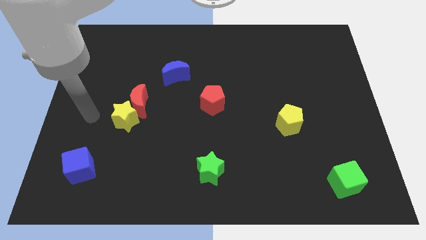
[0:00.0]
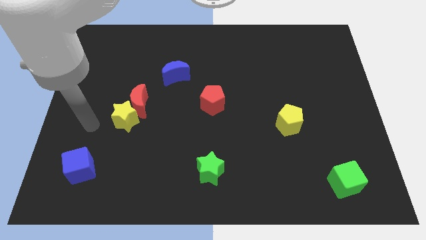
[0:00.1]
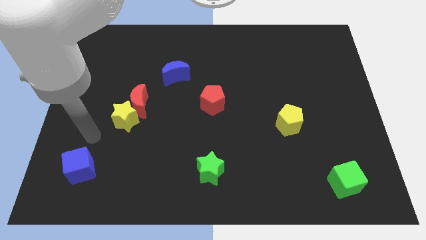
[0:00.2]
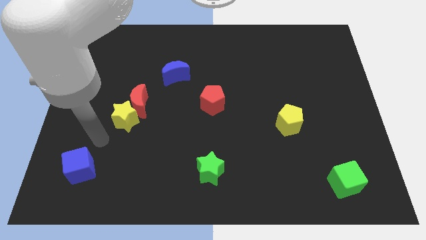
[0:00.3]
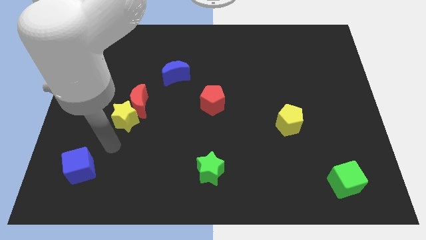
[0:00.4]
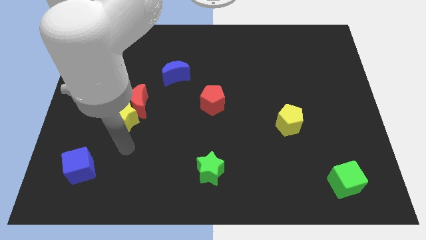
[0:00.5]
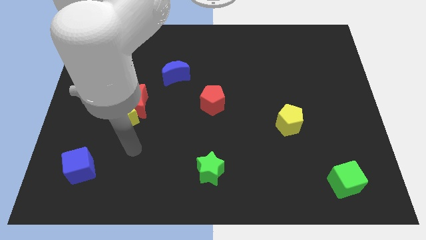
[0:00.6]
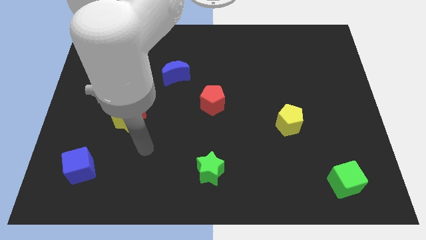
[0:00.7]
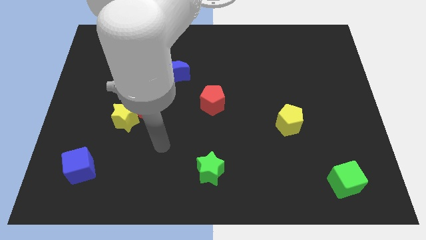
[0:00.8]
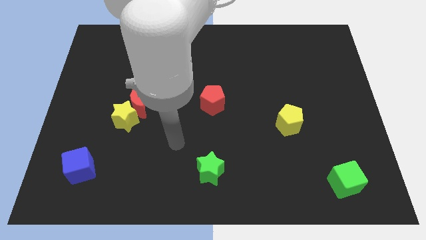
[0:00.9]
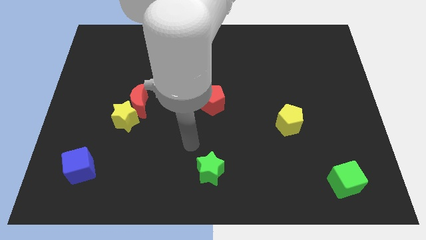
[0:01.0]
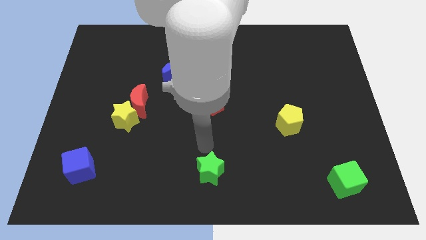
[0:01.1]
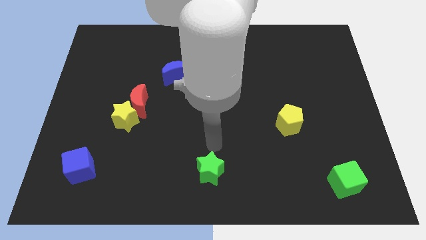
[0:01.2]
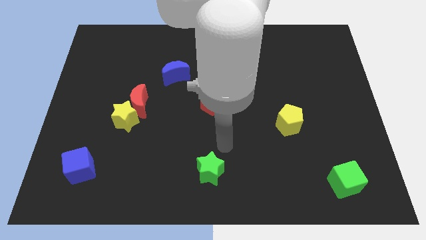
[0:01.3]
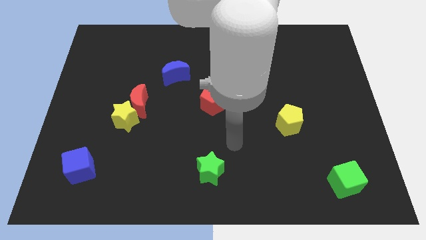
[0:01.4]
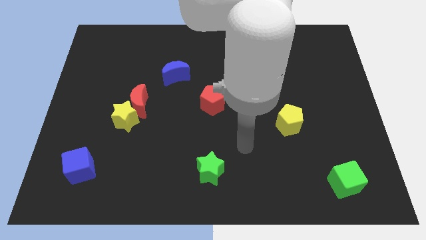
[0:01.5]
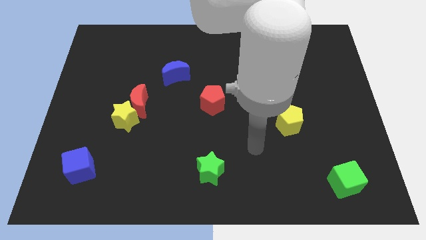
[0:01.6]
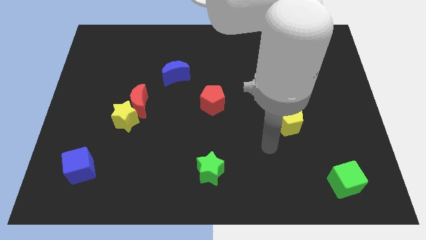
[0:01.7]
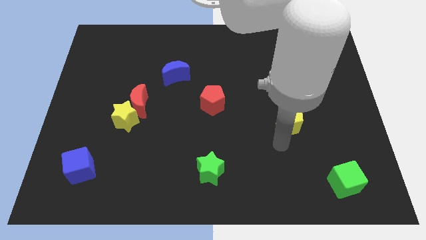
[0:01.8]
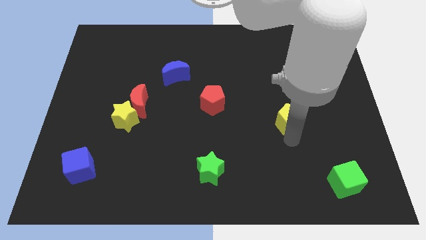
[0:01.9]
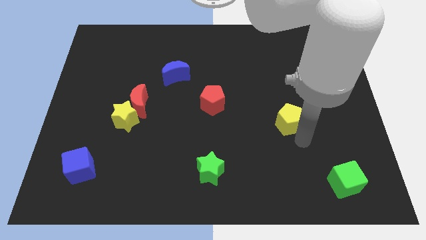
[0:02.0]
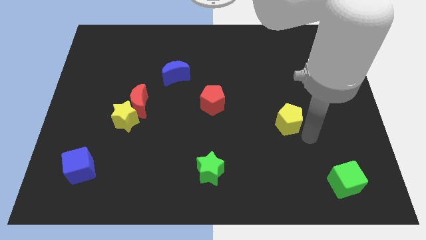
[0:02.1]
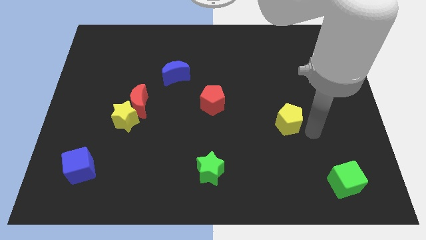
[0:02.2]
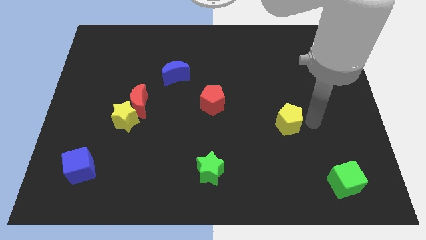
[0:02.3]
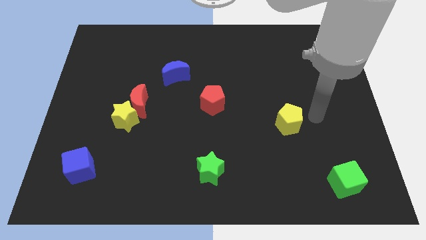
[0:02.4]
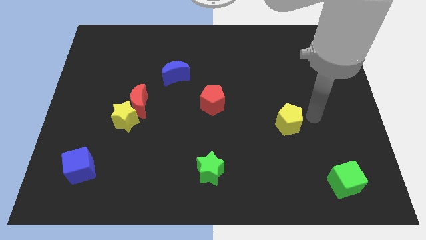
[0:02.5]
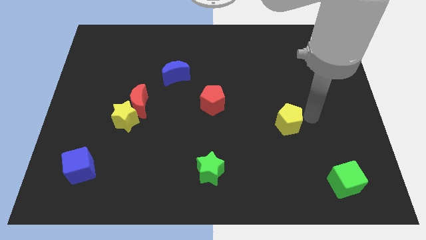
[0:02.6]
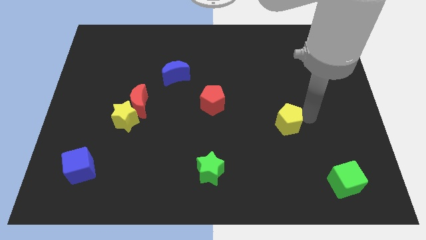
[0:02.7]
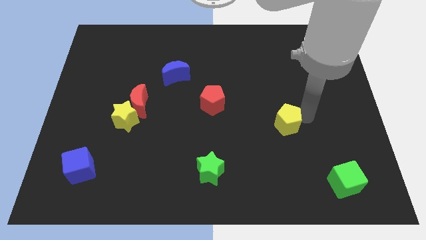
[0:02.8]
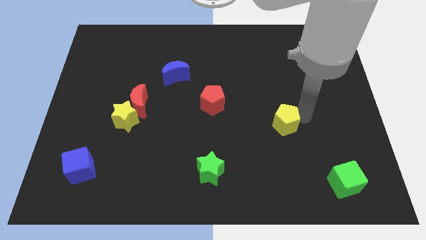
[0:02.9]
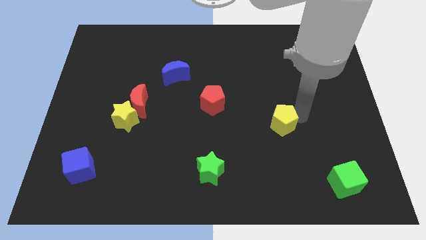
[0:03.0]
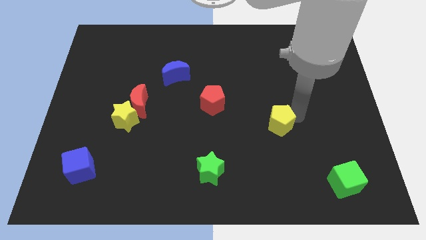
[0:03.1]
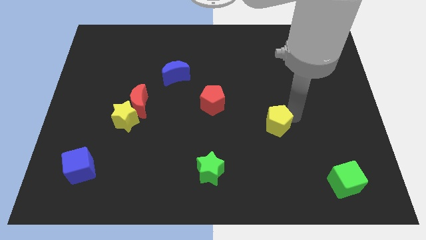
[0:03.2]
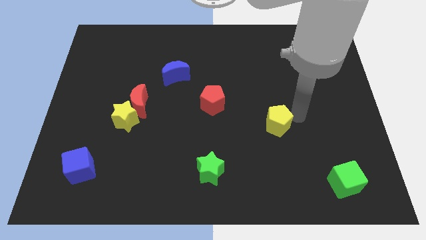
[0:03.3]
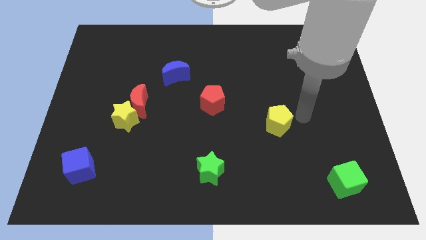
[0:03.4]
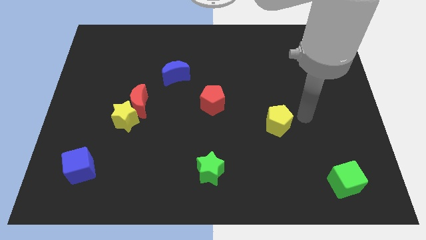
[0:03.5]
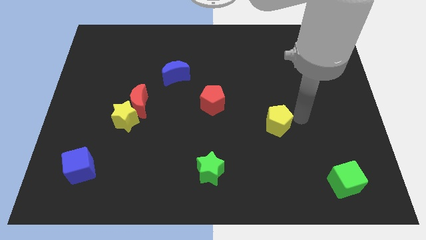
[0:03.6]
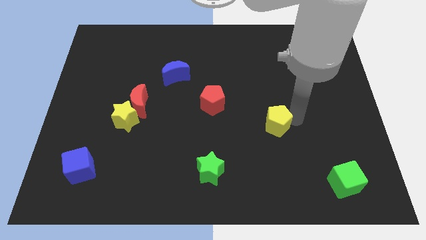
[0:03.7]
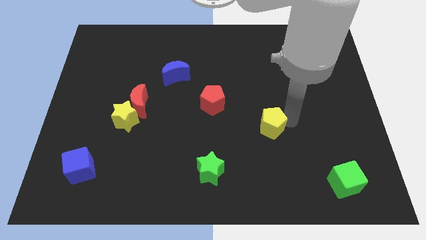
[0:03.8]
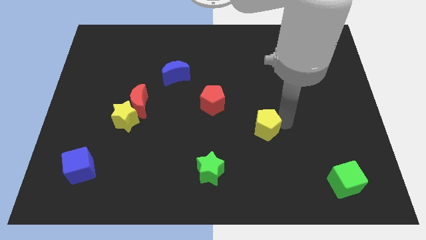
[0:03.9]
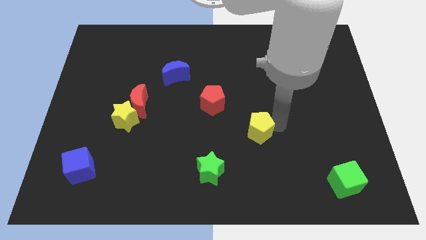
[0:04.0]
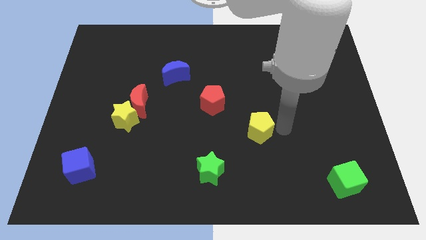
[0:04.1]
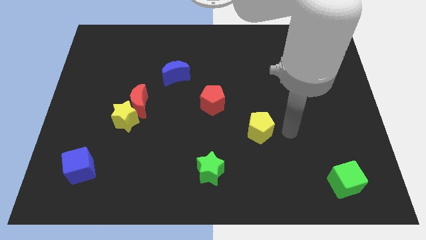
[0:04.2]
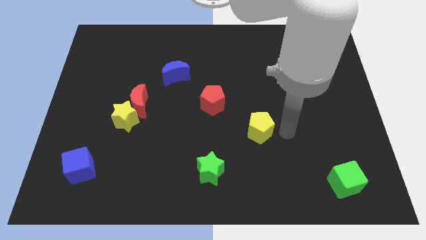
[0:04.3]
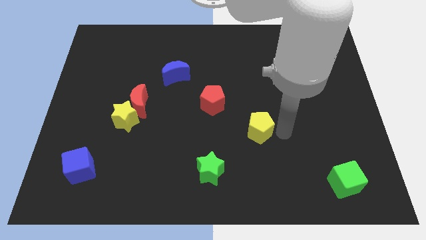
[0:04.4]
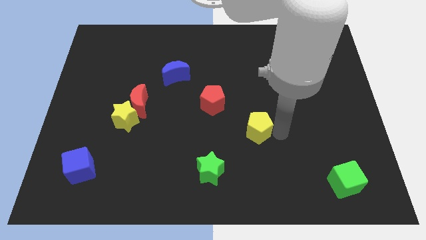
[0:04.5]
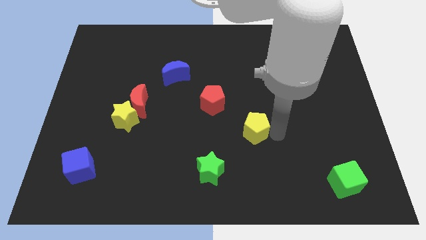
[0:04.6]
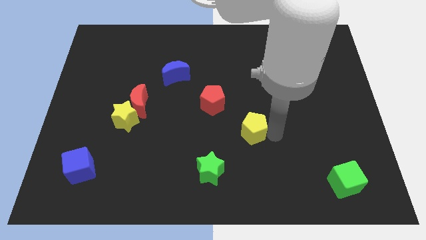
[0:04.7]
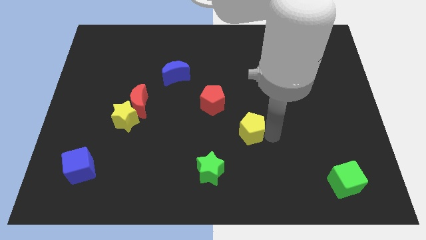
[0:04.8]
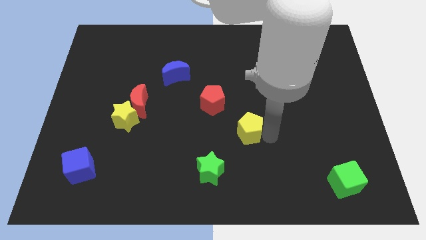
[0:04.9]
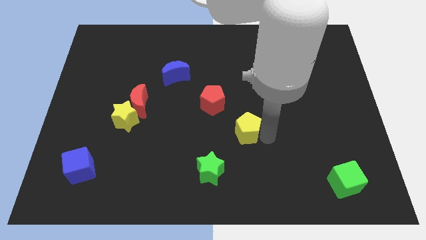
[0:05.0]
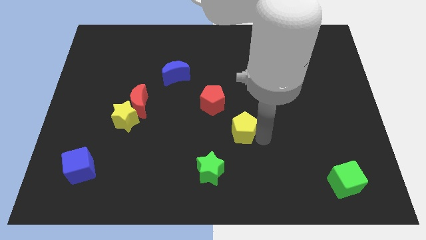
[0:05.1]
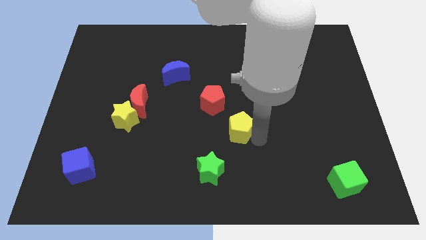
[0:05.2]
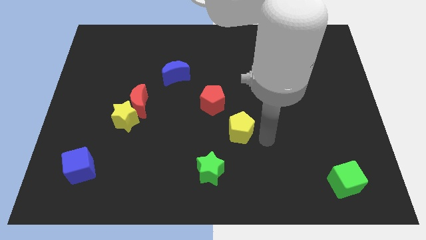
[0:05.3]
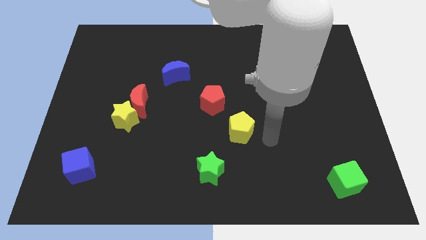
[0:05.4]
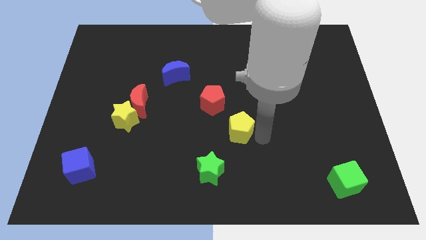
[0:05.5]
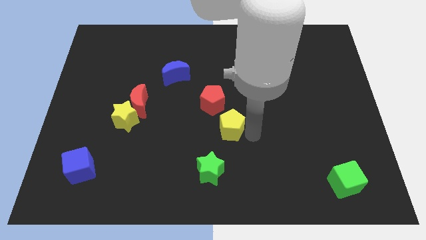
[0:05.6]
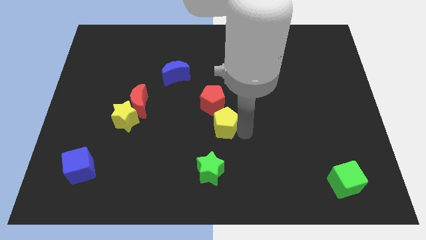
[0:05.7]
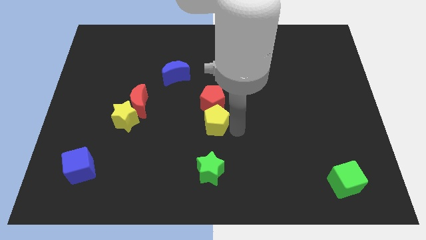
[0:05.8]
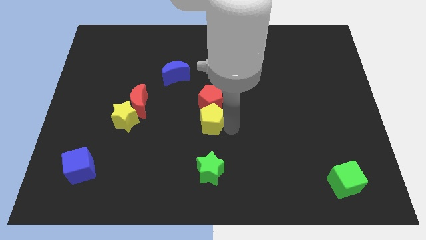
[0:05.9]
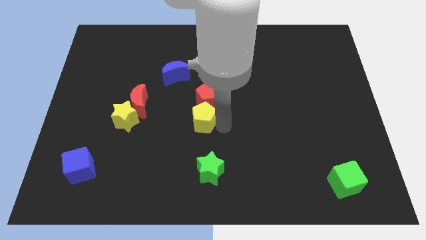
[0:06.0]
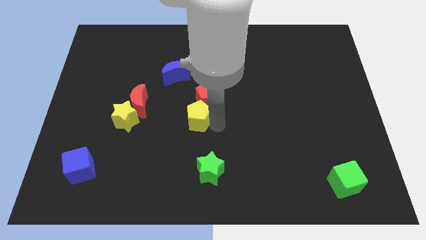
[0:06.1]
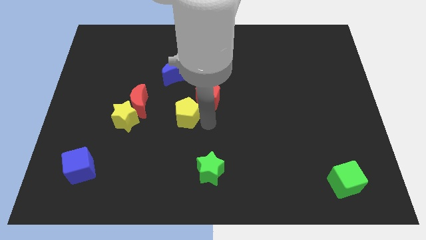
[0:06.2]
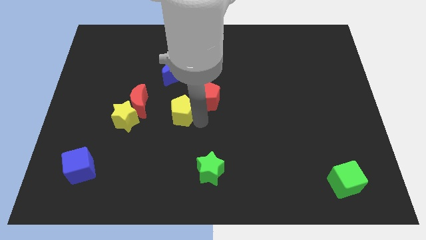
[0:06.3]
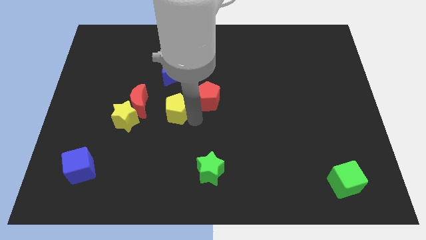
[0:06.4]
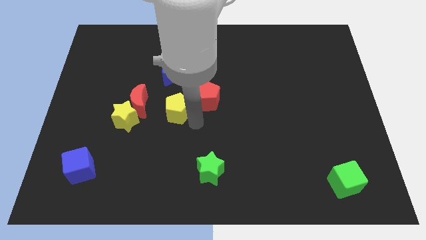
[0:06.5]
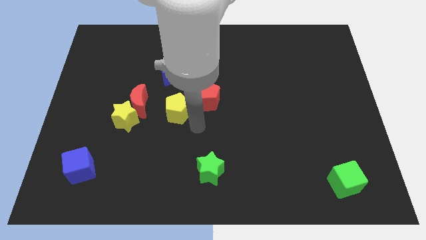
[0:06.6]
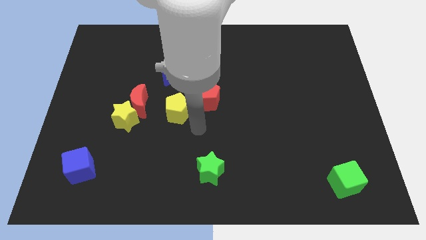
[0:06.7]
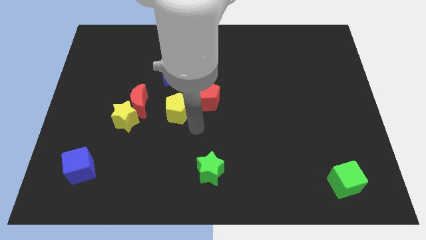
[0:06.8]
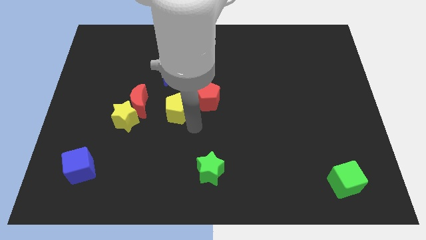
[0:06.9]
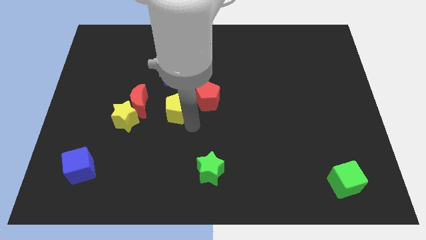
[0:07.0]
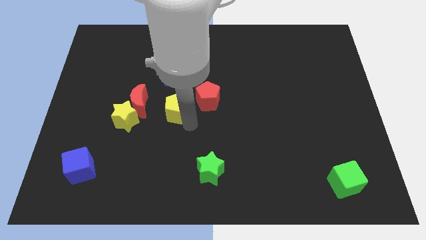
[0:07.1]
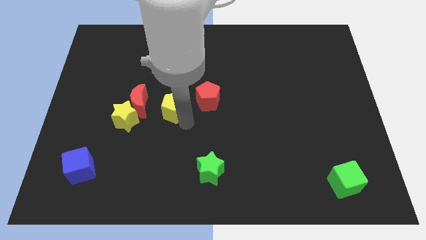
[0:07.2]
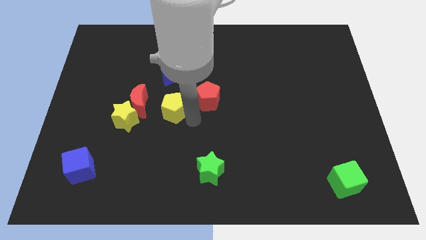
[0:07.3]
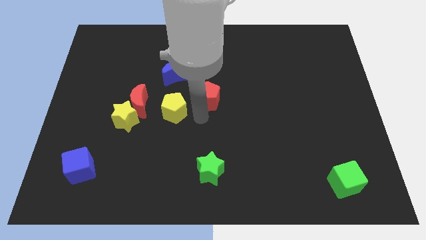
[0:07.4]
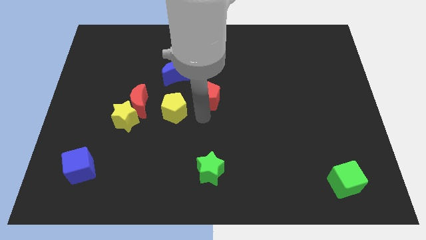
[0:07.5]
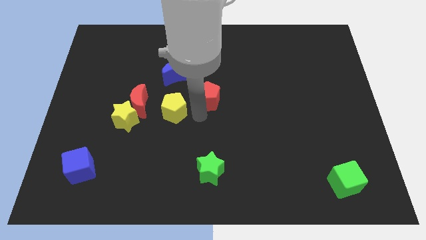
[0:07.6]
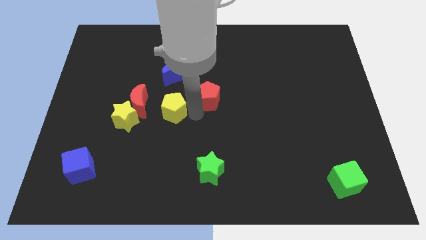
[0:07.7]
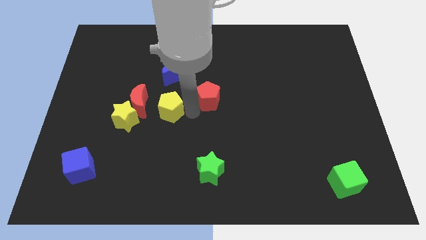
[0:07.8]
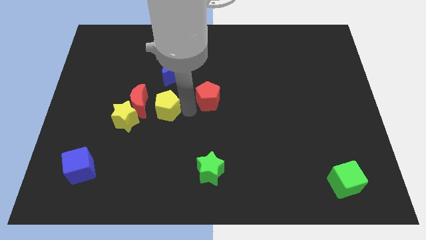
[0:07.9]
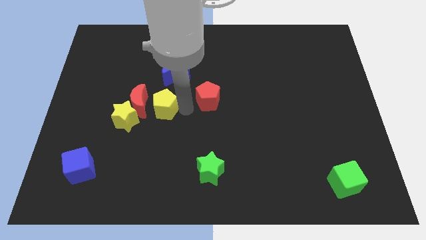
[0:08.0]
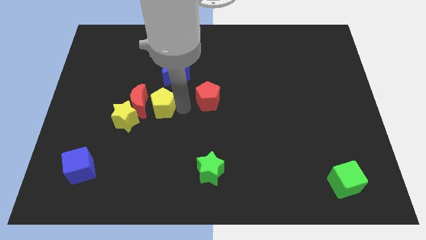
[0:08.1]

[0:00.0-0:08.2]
move the yellow pentagon next to the red moon
